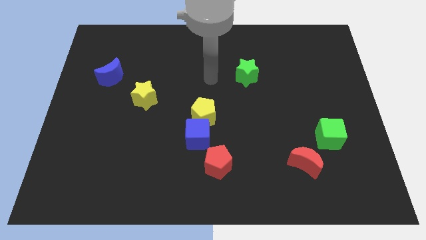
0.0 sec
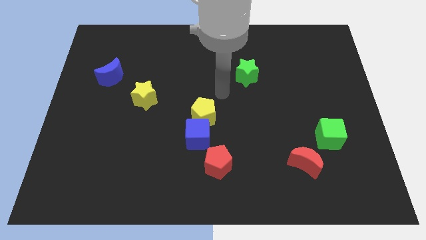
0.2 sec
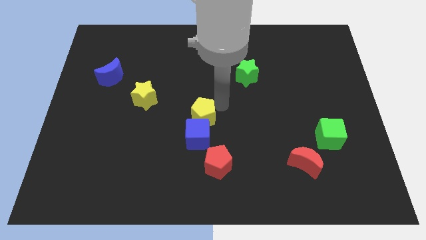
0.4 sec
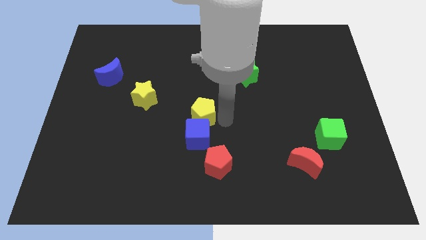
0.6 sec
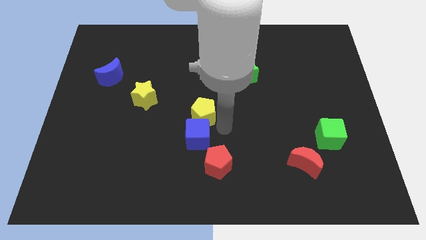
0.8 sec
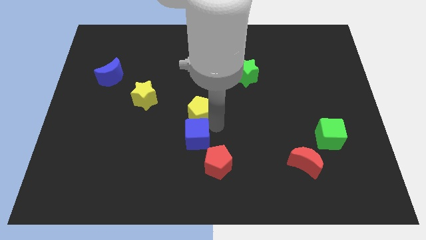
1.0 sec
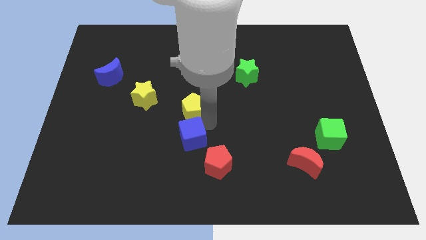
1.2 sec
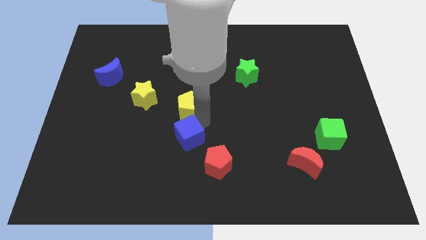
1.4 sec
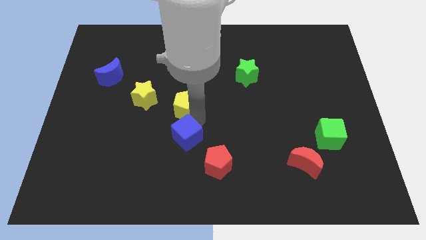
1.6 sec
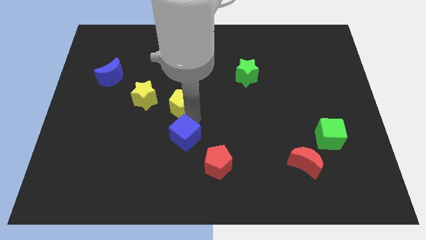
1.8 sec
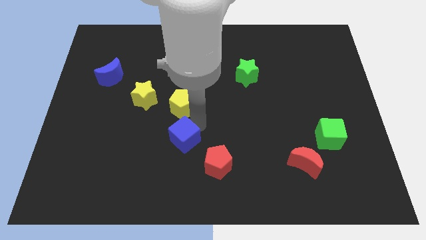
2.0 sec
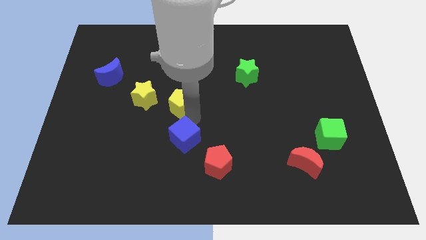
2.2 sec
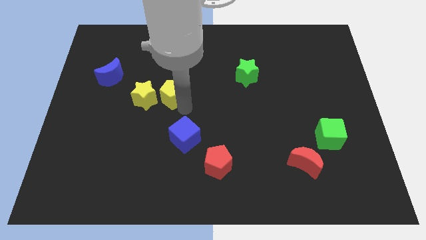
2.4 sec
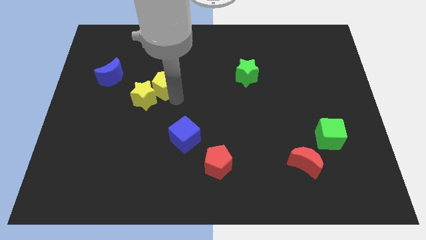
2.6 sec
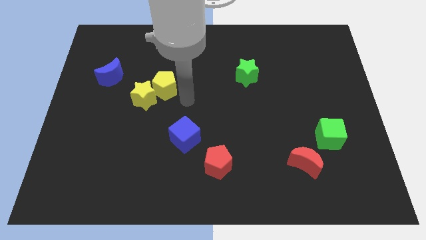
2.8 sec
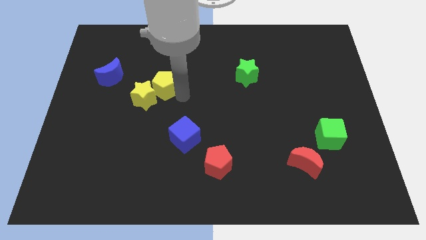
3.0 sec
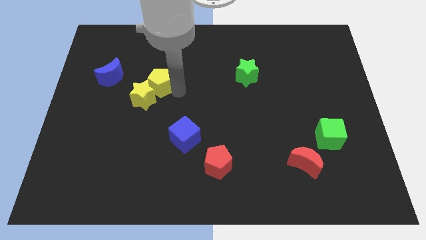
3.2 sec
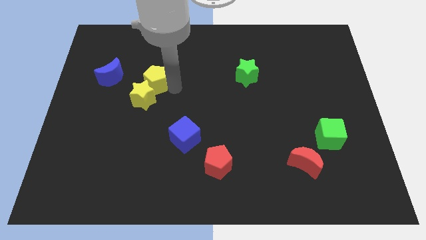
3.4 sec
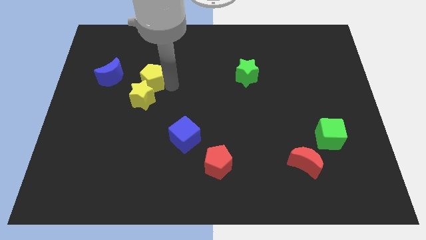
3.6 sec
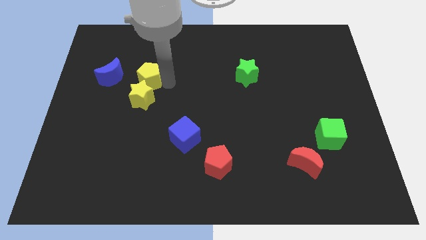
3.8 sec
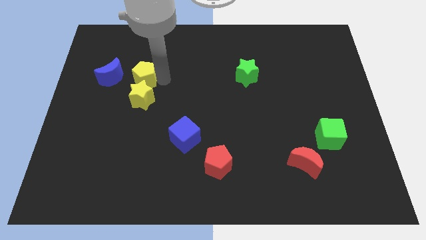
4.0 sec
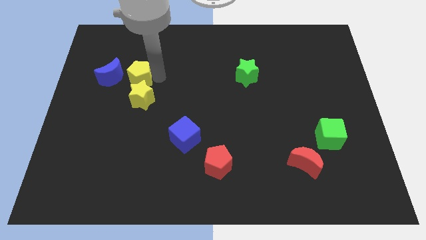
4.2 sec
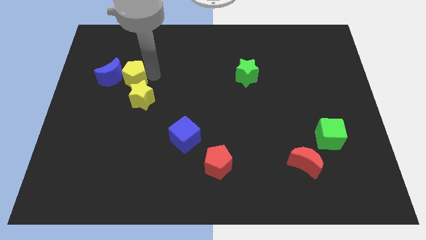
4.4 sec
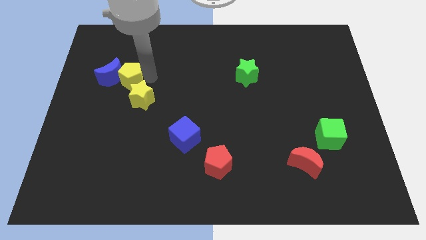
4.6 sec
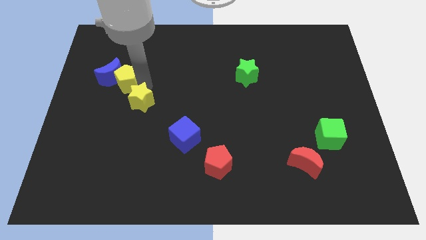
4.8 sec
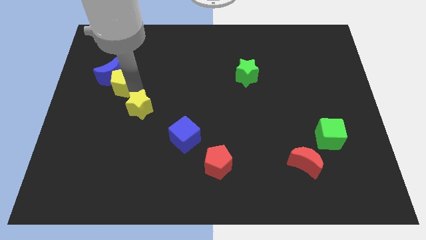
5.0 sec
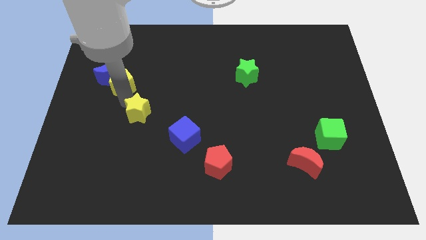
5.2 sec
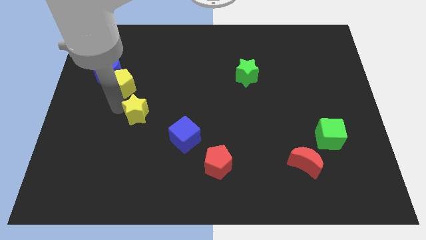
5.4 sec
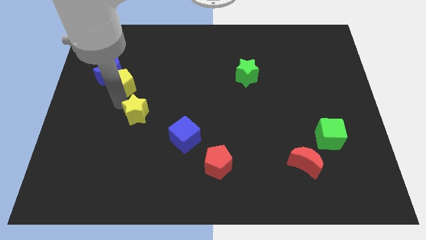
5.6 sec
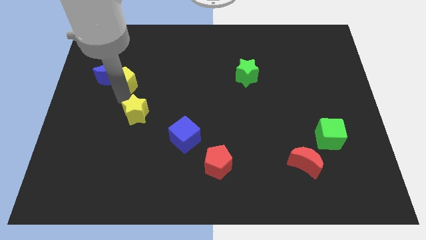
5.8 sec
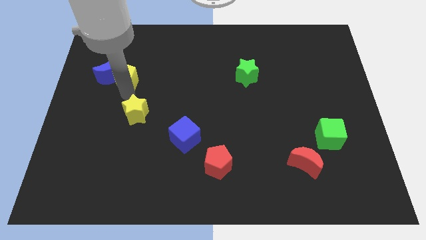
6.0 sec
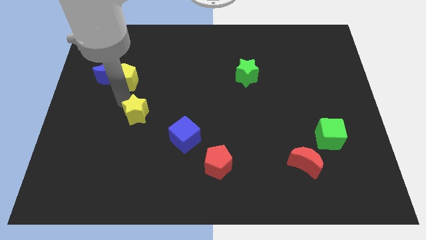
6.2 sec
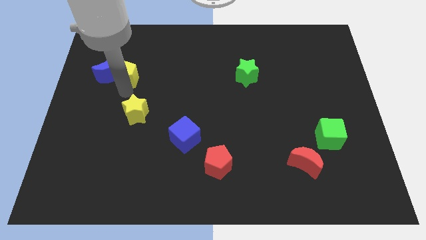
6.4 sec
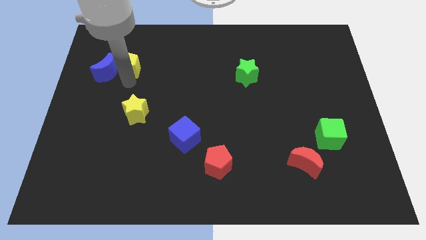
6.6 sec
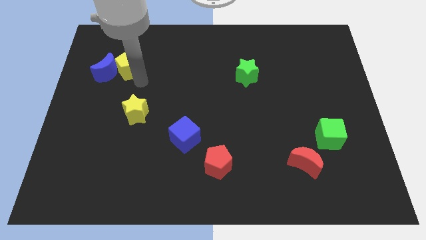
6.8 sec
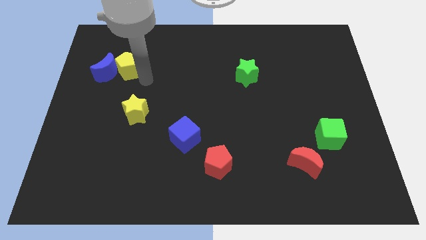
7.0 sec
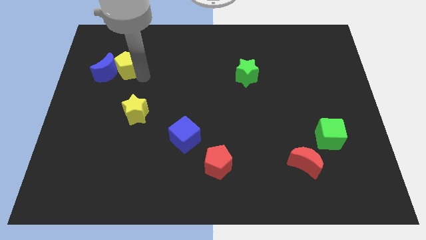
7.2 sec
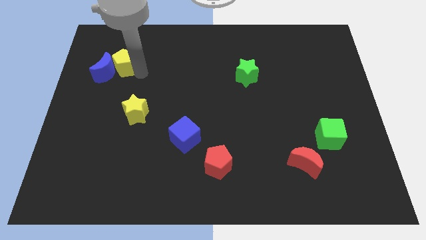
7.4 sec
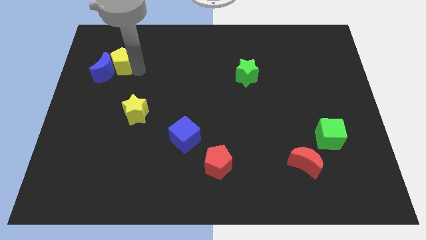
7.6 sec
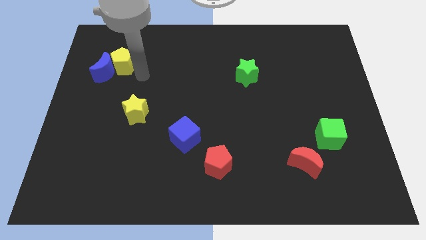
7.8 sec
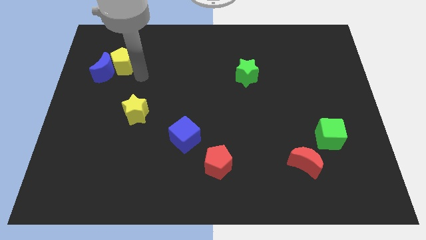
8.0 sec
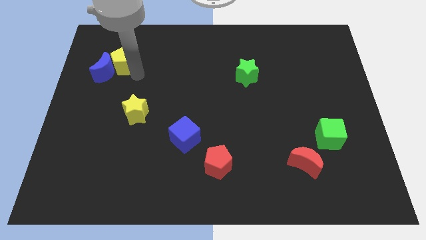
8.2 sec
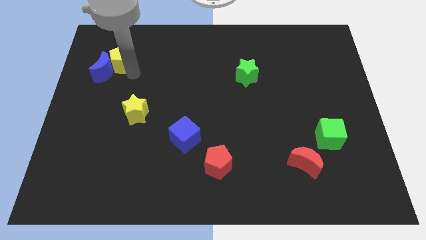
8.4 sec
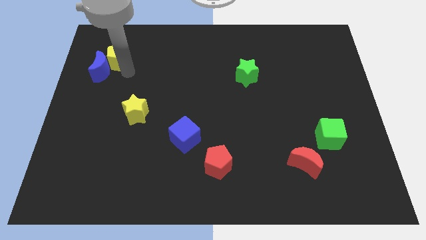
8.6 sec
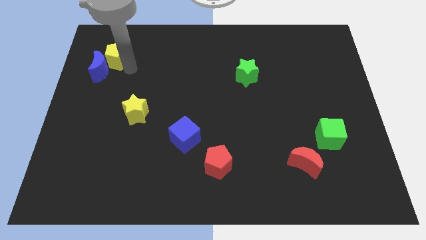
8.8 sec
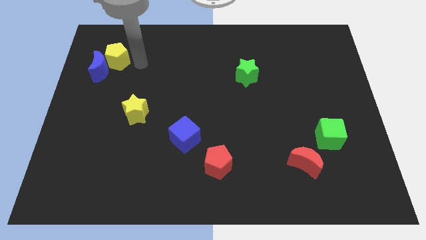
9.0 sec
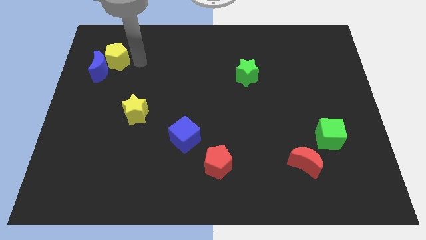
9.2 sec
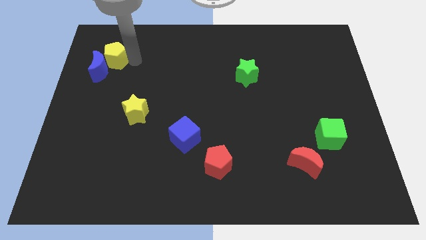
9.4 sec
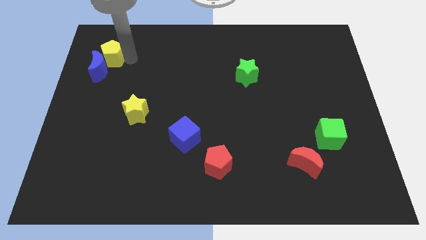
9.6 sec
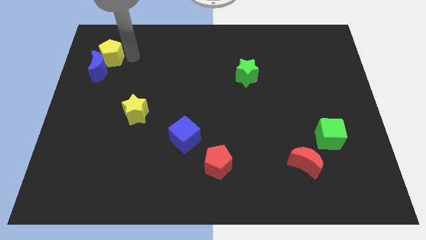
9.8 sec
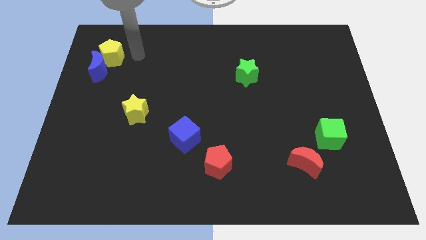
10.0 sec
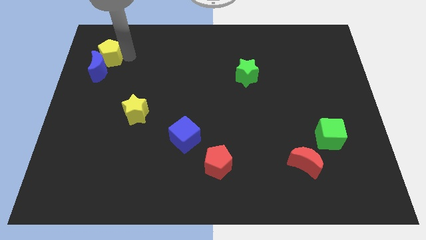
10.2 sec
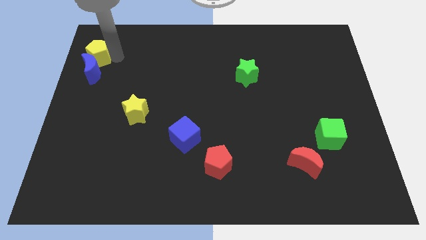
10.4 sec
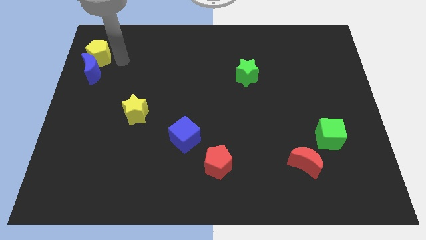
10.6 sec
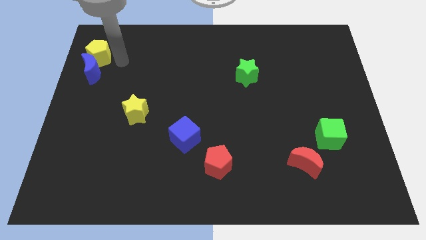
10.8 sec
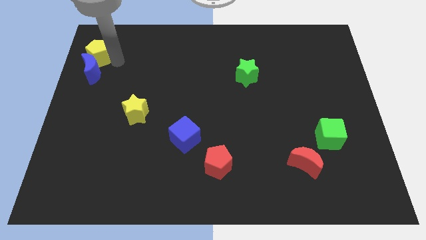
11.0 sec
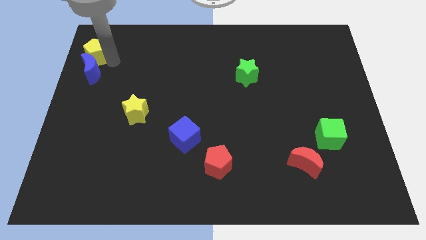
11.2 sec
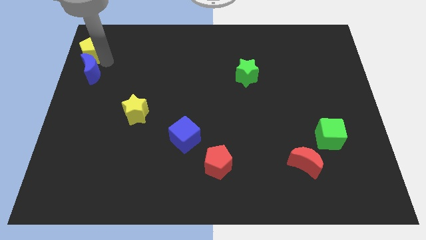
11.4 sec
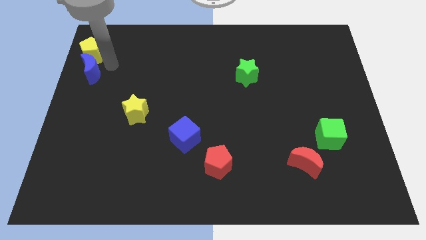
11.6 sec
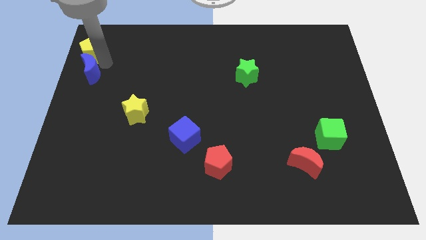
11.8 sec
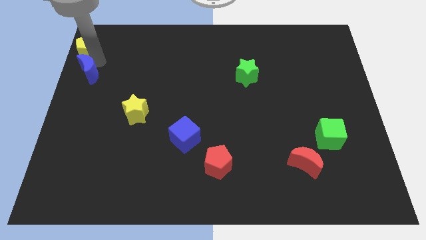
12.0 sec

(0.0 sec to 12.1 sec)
put the yellow pentagon to the top left of the board
